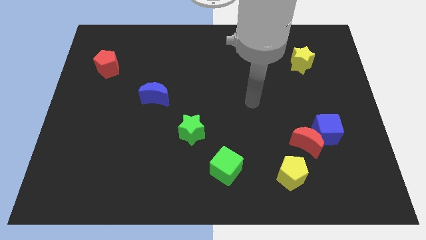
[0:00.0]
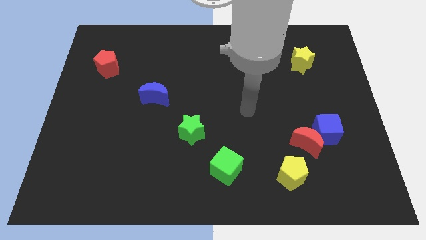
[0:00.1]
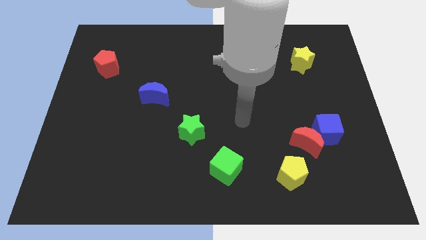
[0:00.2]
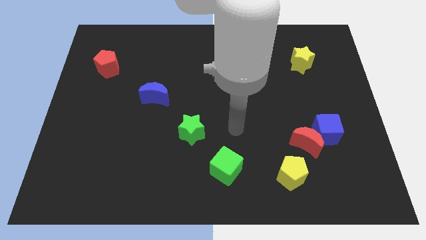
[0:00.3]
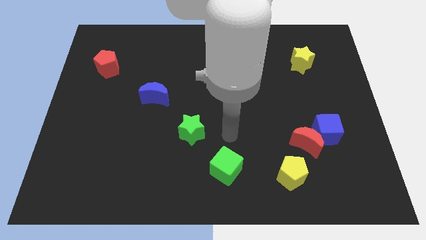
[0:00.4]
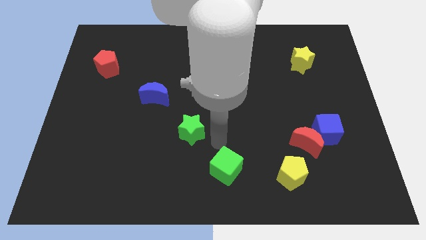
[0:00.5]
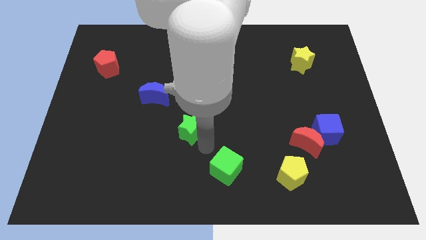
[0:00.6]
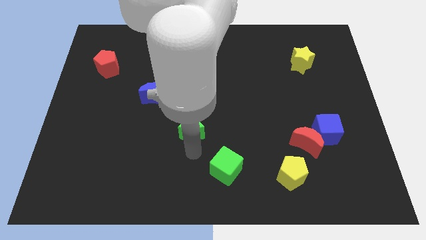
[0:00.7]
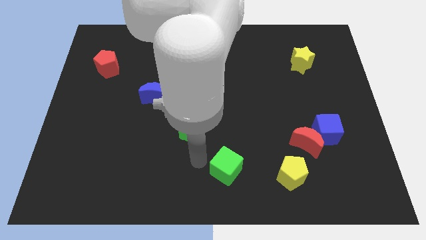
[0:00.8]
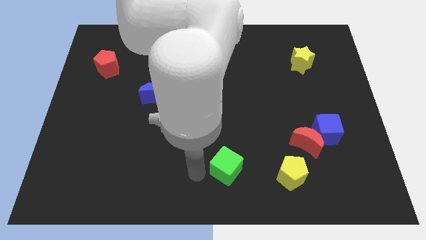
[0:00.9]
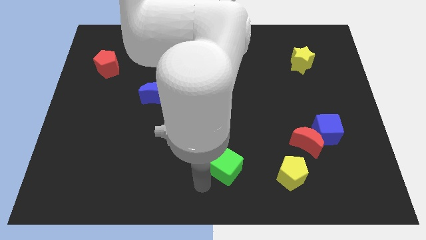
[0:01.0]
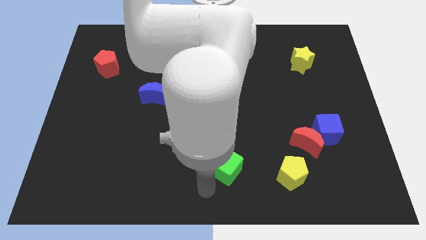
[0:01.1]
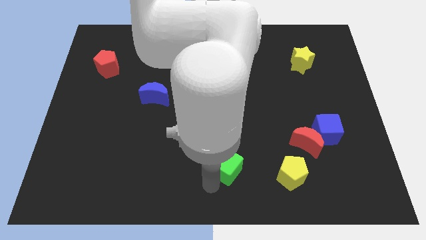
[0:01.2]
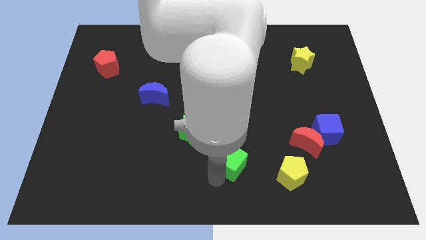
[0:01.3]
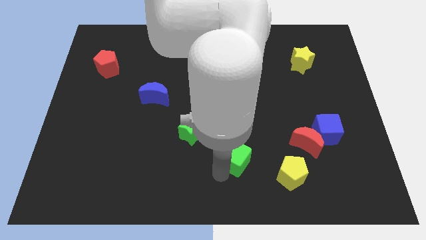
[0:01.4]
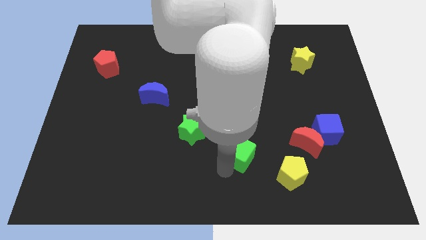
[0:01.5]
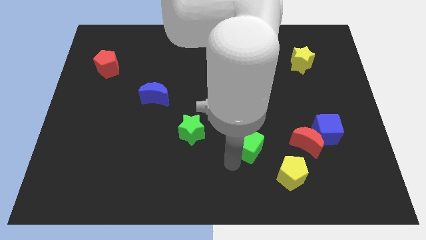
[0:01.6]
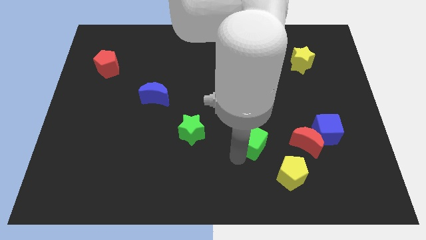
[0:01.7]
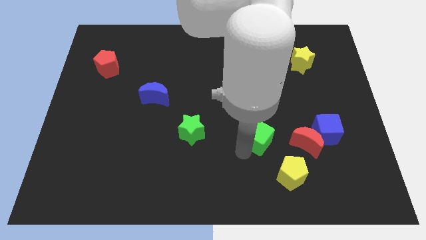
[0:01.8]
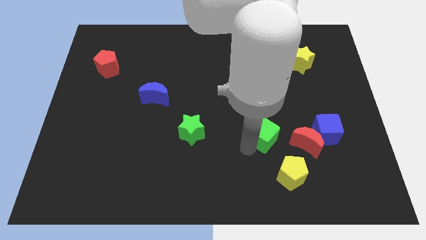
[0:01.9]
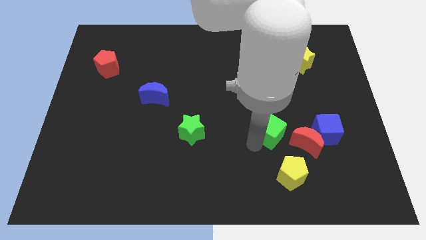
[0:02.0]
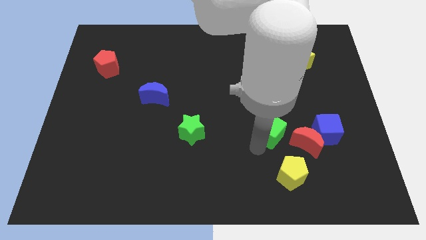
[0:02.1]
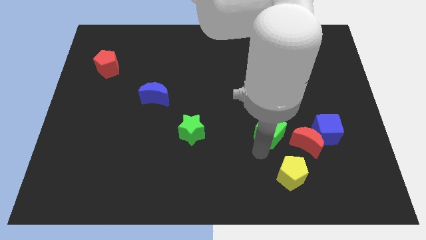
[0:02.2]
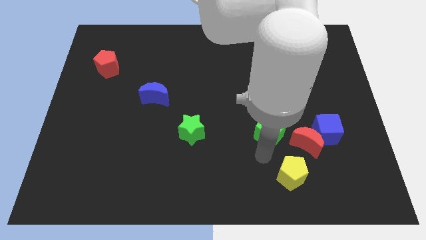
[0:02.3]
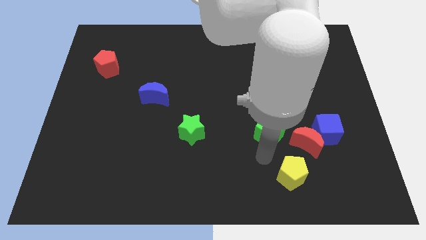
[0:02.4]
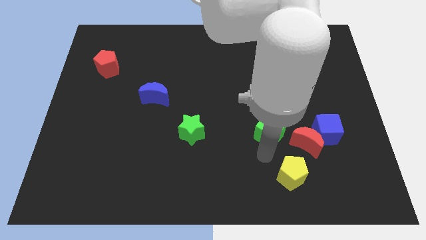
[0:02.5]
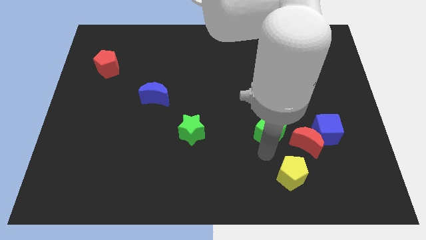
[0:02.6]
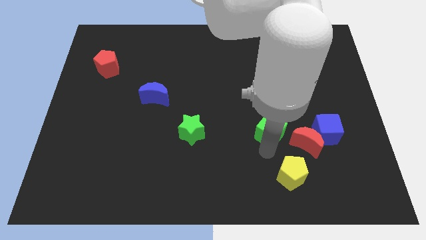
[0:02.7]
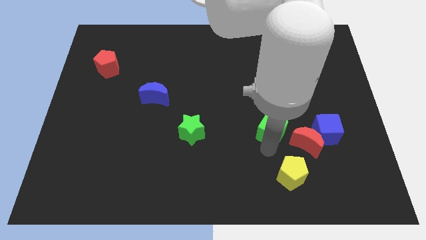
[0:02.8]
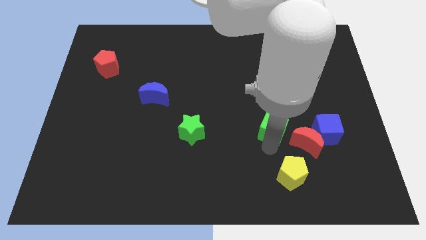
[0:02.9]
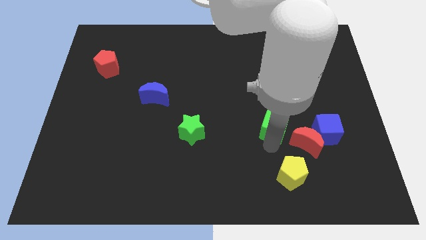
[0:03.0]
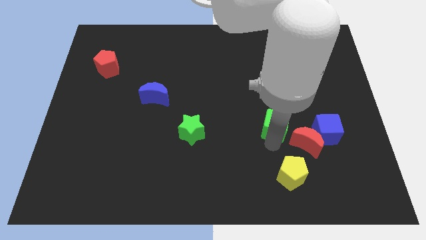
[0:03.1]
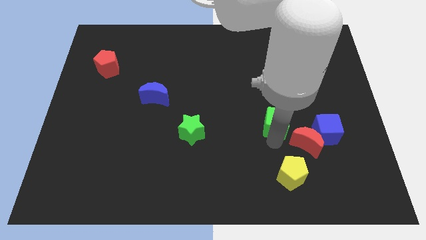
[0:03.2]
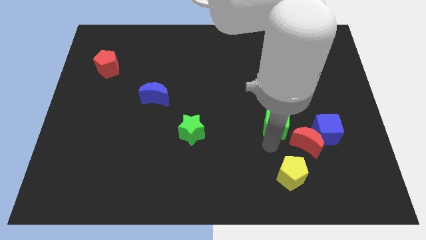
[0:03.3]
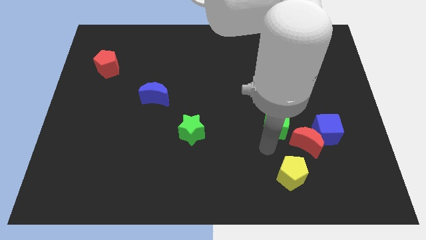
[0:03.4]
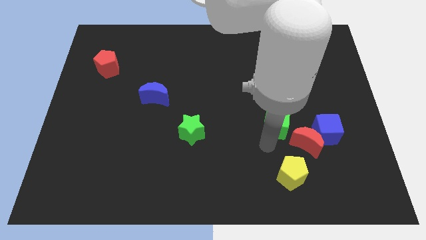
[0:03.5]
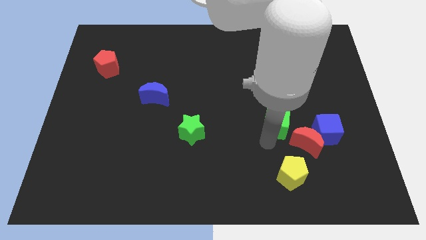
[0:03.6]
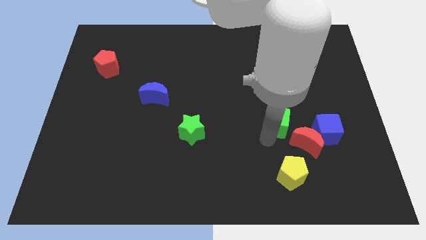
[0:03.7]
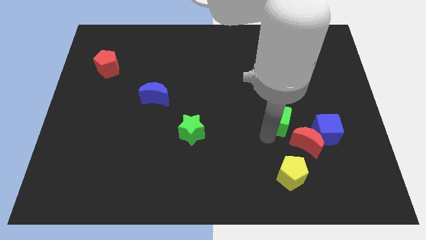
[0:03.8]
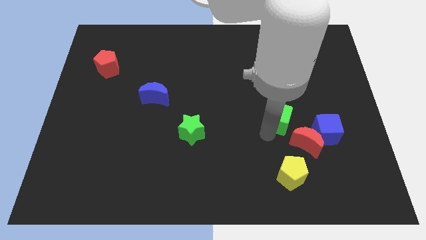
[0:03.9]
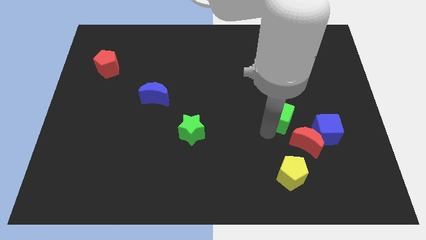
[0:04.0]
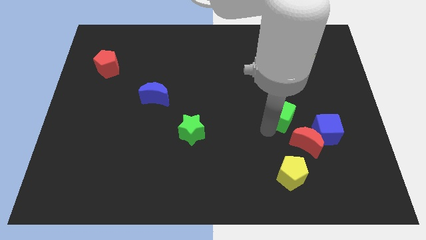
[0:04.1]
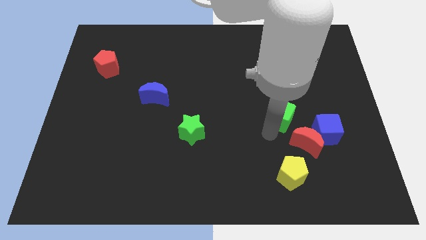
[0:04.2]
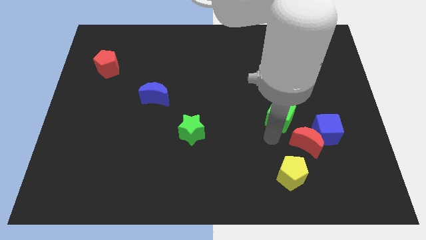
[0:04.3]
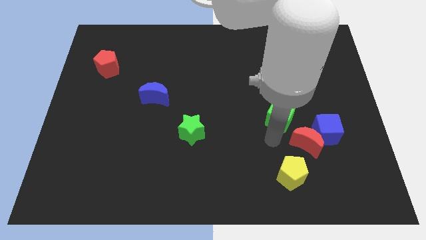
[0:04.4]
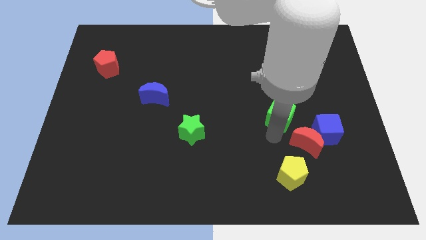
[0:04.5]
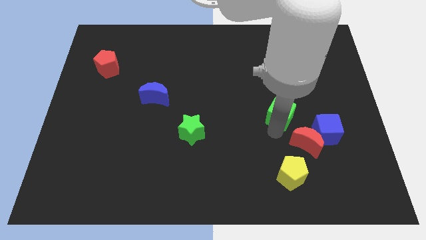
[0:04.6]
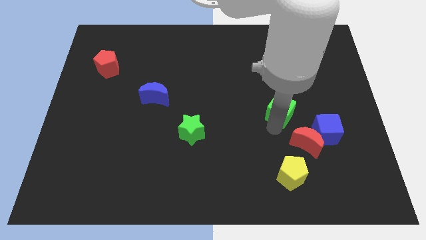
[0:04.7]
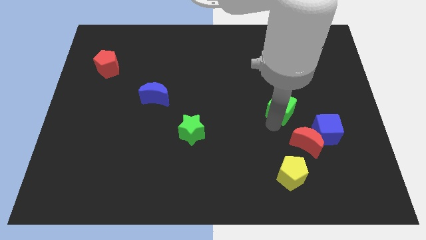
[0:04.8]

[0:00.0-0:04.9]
move the green cube diagonally upwards and right

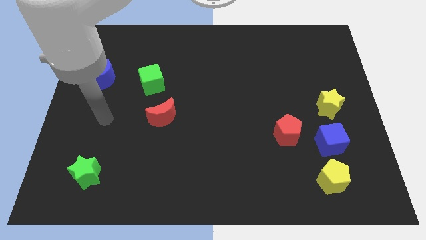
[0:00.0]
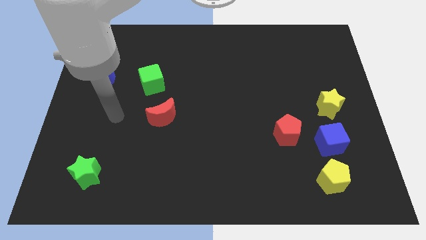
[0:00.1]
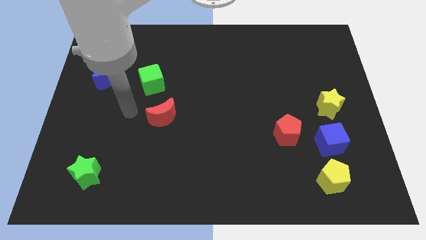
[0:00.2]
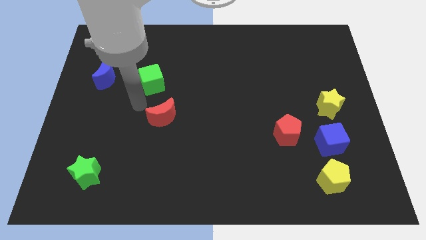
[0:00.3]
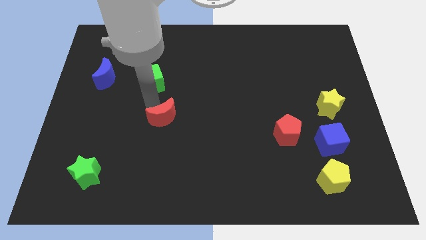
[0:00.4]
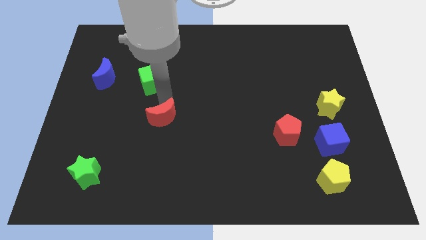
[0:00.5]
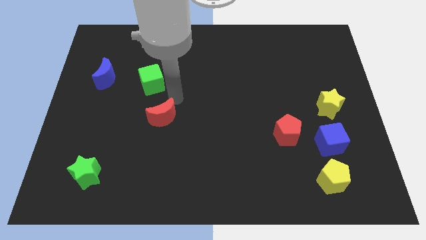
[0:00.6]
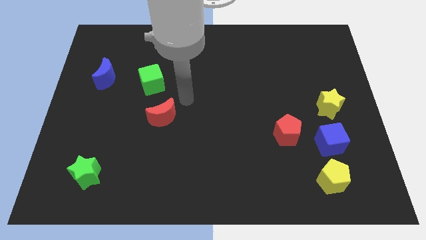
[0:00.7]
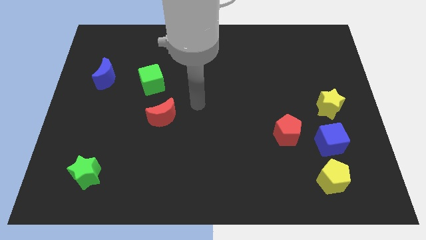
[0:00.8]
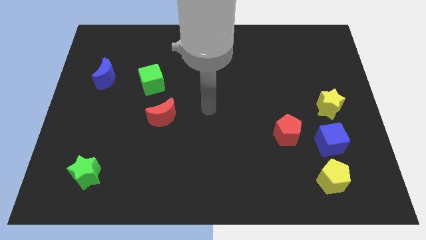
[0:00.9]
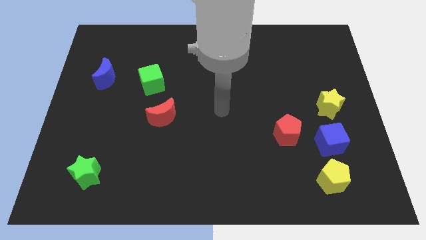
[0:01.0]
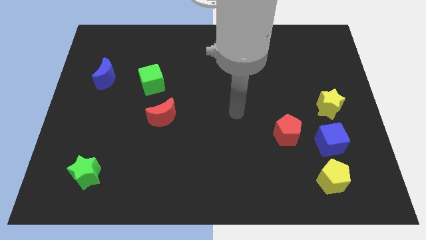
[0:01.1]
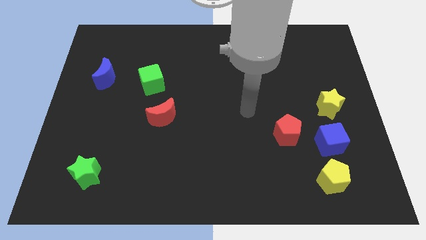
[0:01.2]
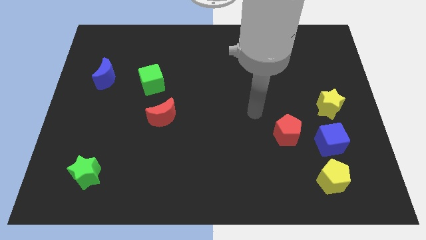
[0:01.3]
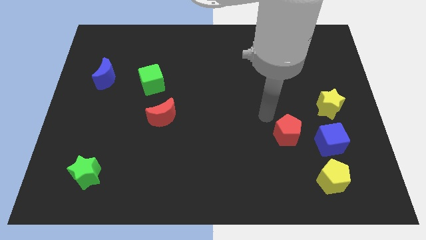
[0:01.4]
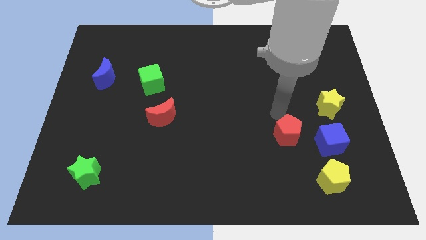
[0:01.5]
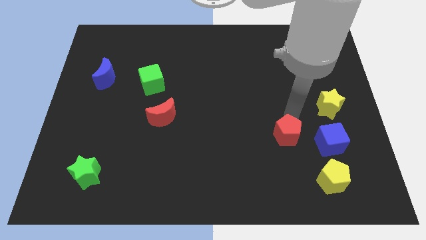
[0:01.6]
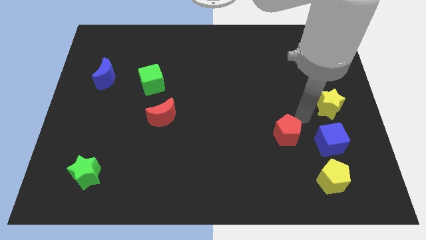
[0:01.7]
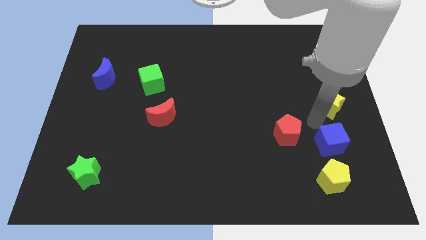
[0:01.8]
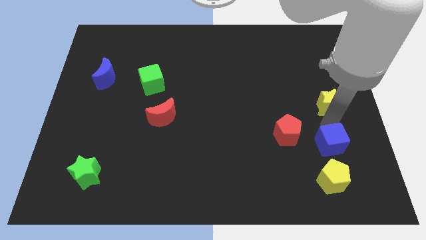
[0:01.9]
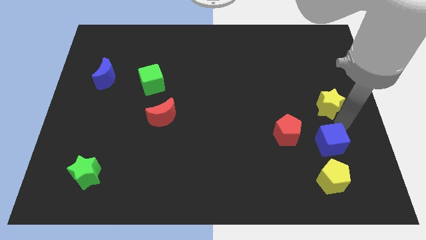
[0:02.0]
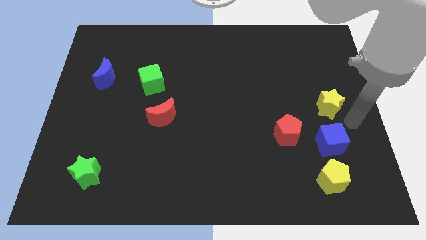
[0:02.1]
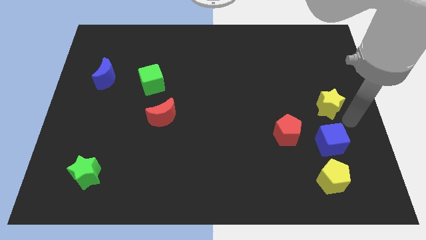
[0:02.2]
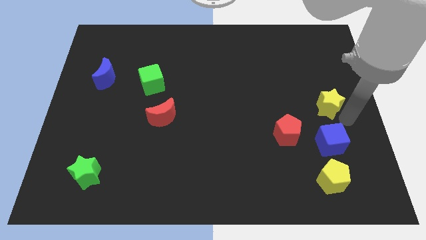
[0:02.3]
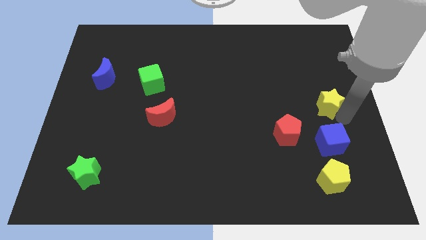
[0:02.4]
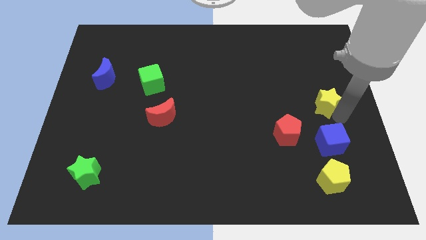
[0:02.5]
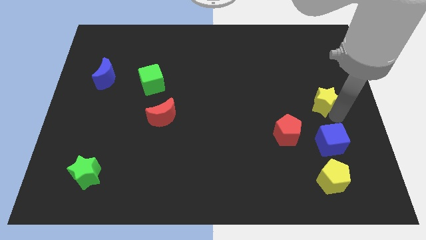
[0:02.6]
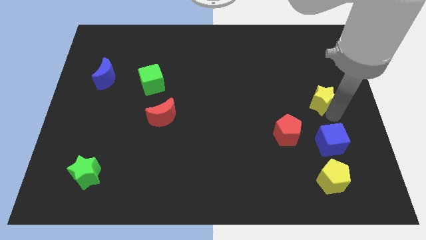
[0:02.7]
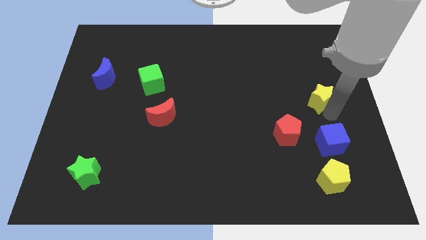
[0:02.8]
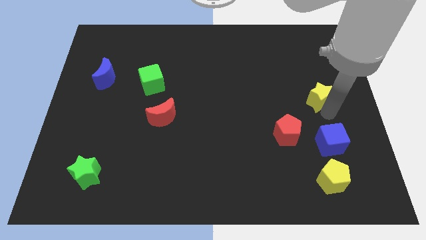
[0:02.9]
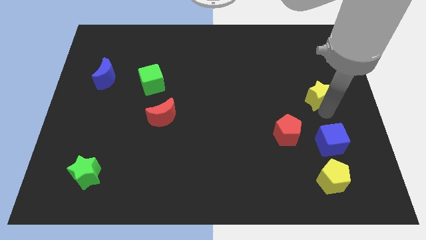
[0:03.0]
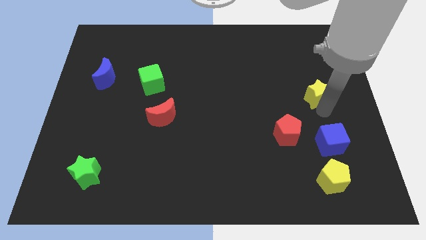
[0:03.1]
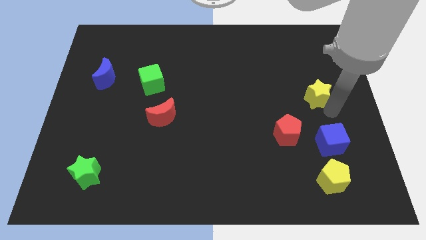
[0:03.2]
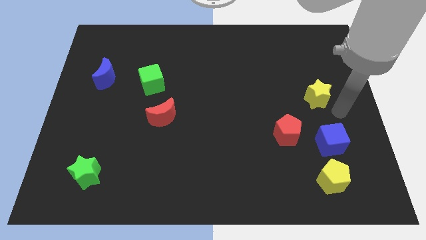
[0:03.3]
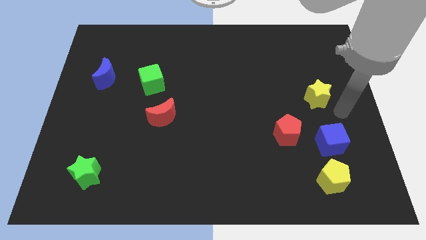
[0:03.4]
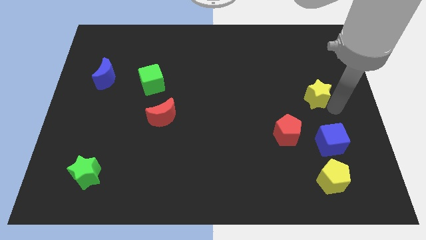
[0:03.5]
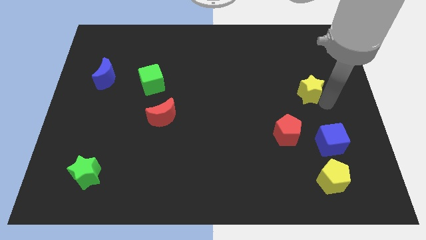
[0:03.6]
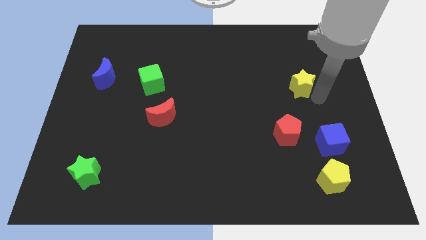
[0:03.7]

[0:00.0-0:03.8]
push the yellow star diagonally upwards and left a bit
